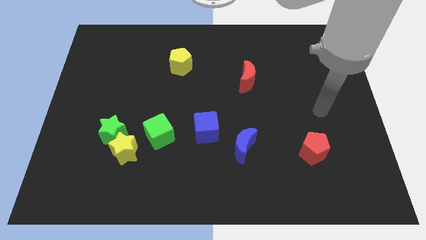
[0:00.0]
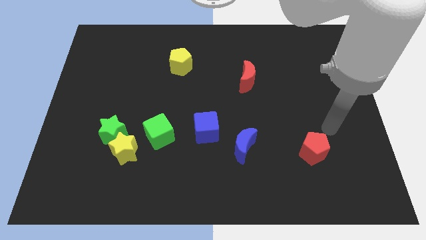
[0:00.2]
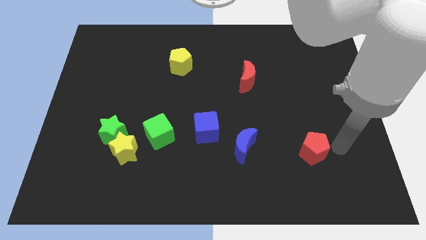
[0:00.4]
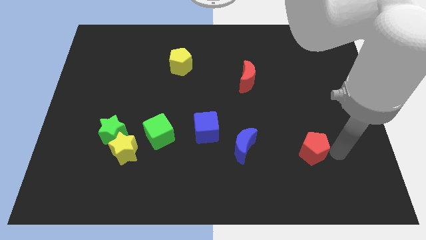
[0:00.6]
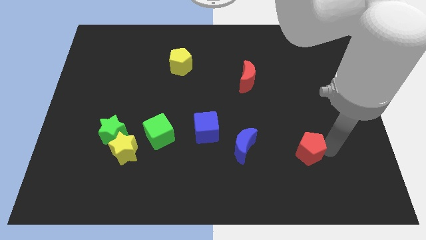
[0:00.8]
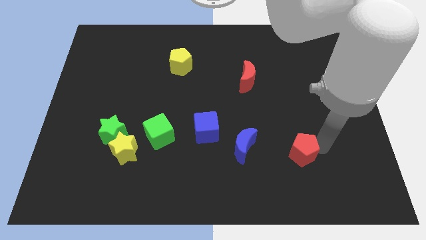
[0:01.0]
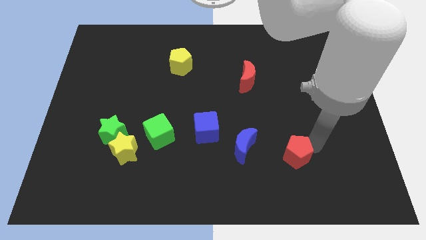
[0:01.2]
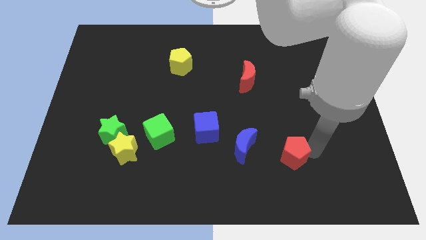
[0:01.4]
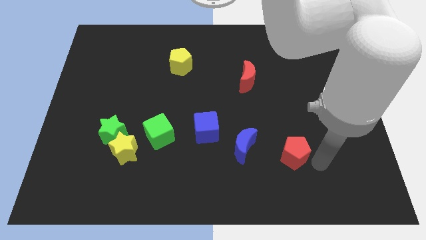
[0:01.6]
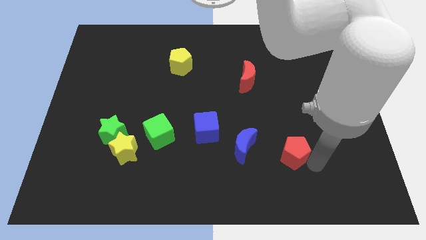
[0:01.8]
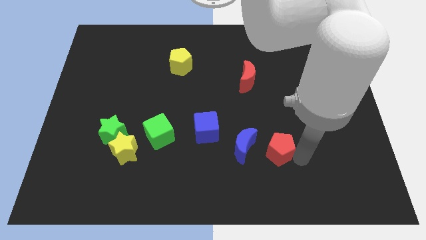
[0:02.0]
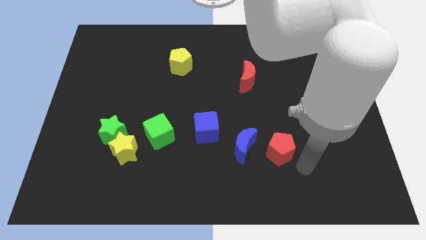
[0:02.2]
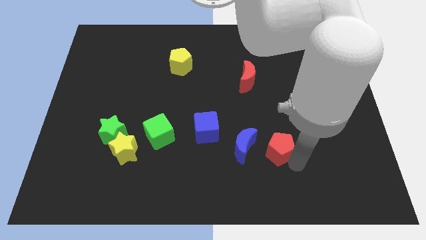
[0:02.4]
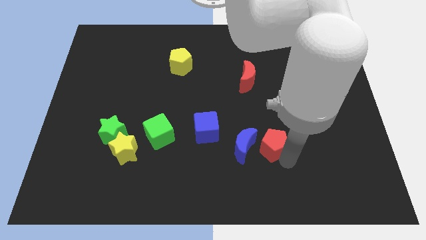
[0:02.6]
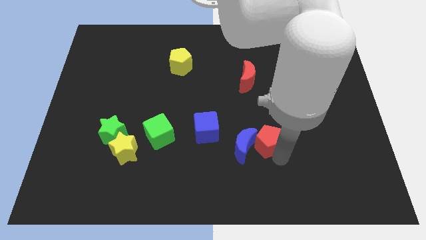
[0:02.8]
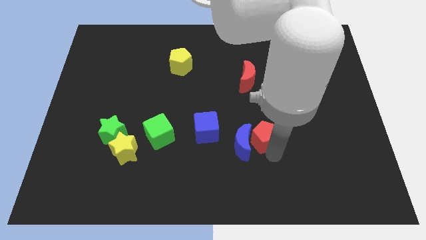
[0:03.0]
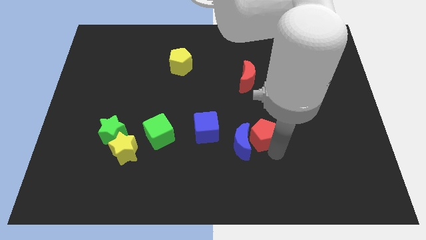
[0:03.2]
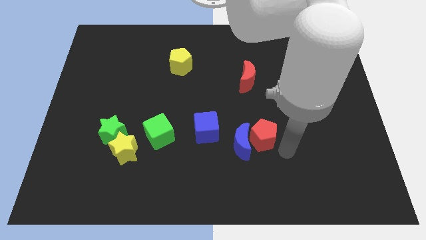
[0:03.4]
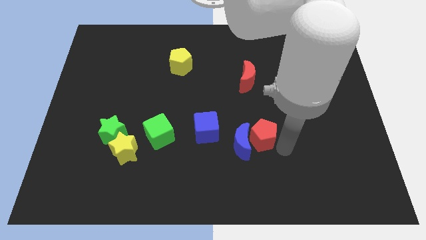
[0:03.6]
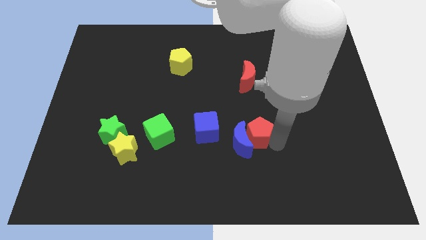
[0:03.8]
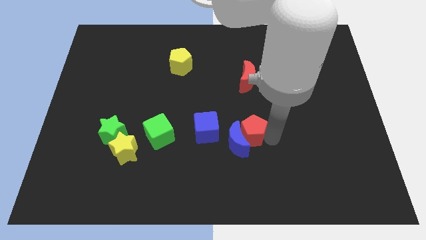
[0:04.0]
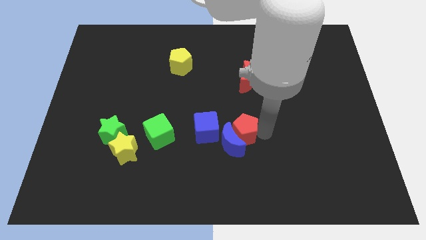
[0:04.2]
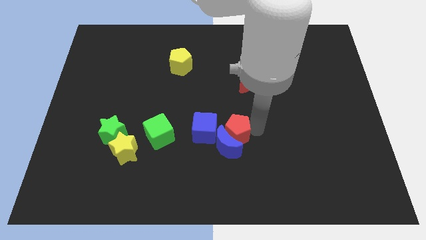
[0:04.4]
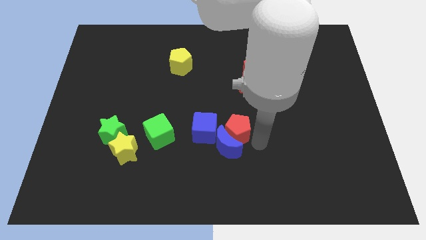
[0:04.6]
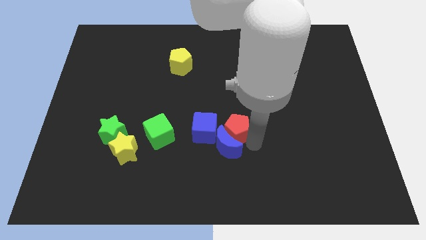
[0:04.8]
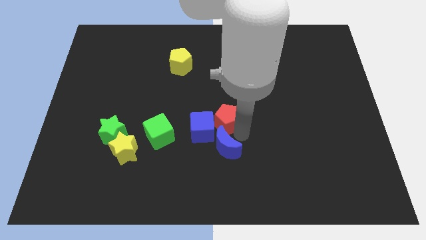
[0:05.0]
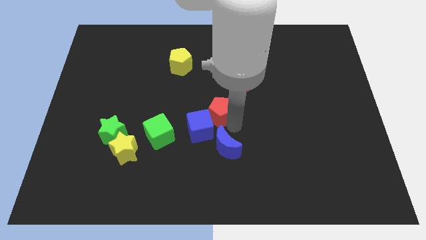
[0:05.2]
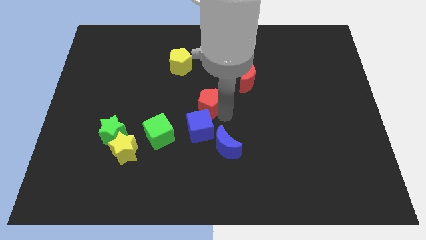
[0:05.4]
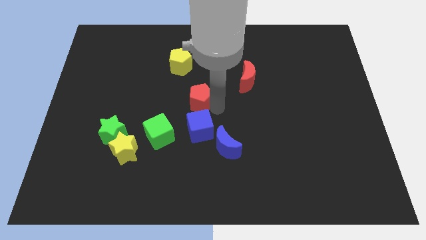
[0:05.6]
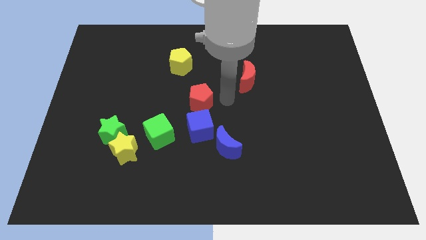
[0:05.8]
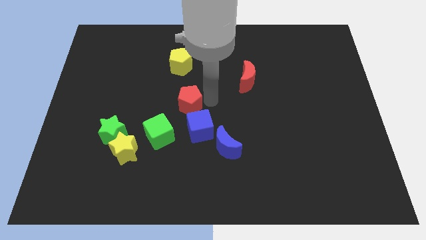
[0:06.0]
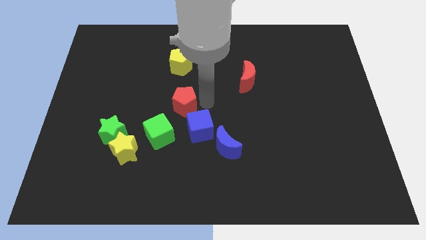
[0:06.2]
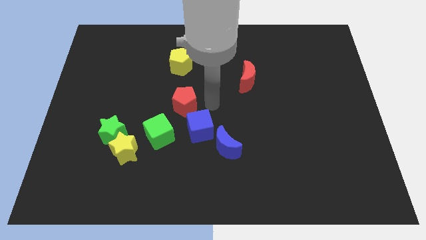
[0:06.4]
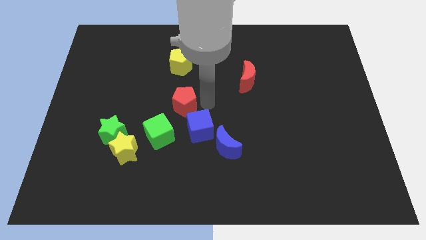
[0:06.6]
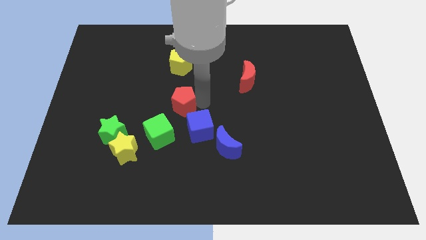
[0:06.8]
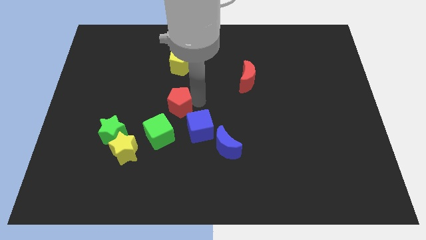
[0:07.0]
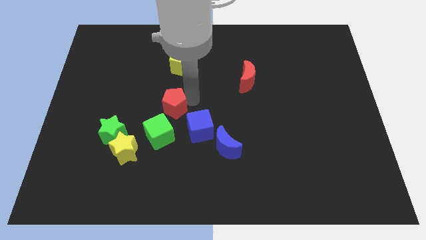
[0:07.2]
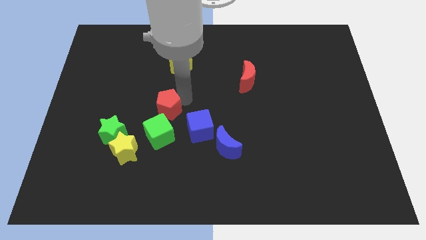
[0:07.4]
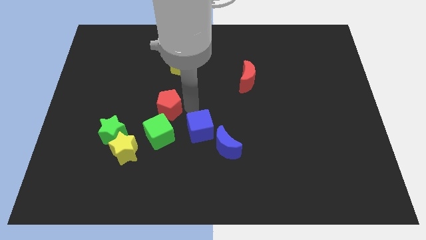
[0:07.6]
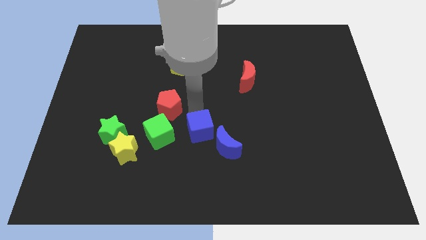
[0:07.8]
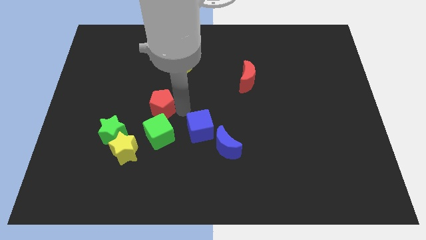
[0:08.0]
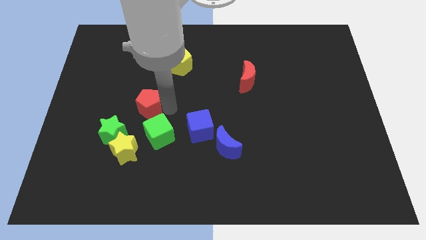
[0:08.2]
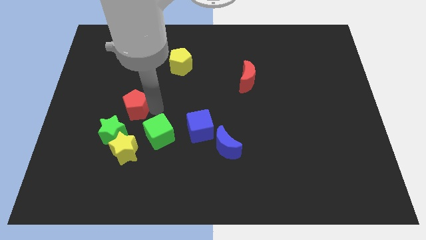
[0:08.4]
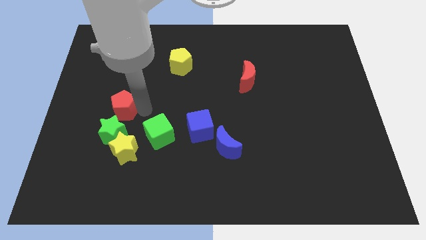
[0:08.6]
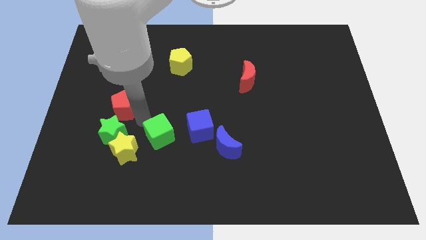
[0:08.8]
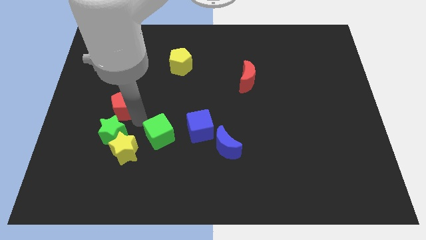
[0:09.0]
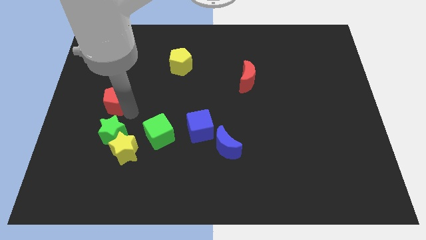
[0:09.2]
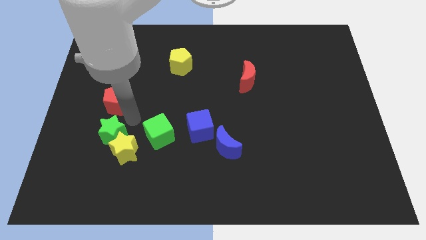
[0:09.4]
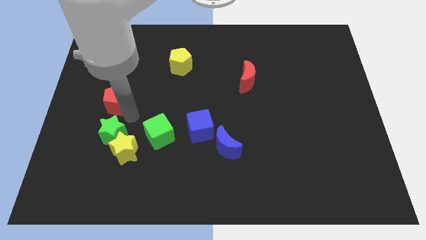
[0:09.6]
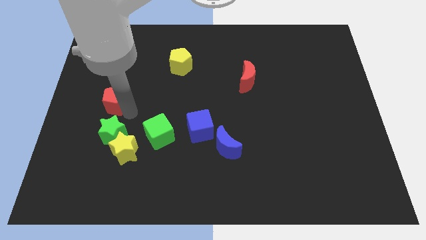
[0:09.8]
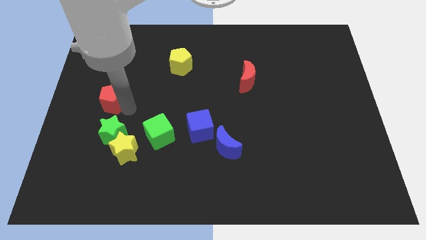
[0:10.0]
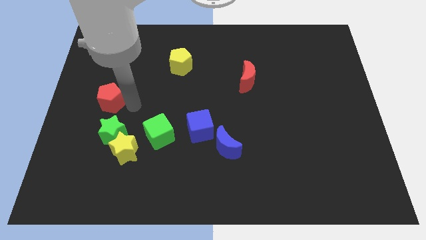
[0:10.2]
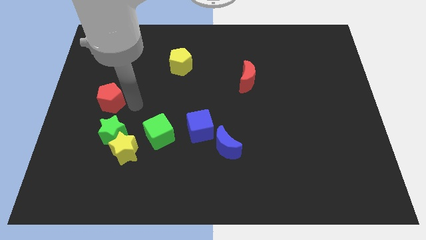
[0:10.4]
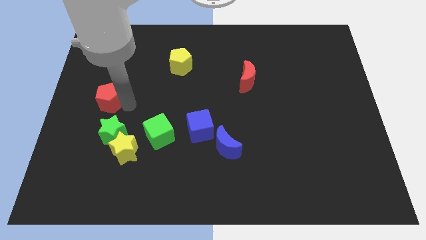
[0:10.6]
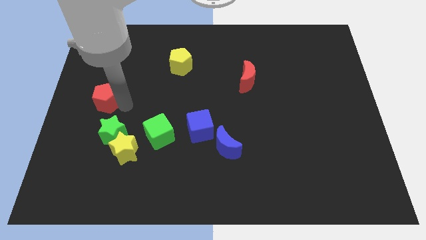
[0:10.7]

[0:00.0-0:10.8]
move the red pentagon to the left side of the board

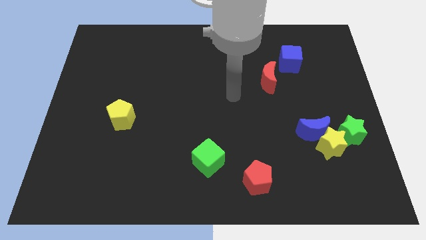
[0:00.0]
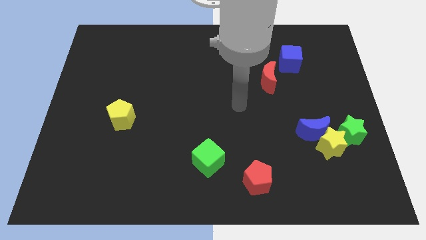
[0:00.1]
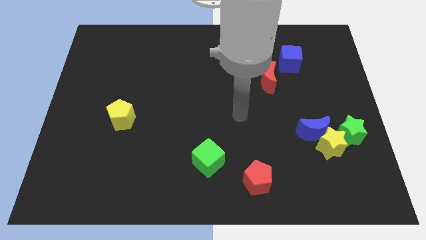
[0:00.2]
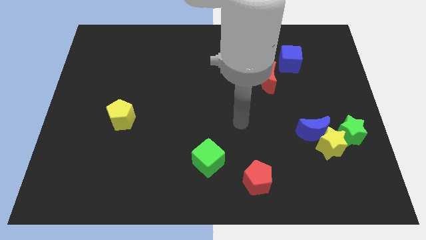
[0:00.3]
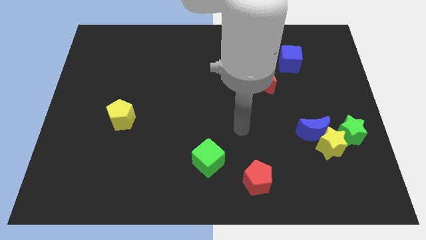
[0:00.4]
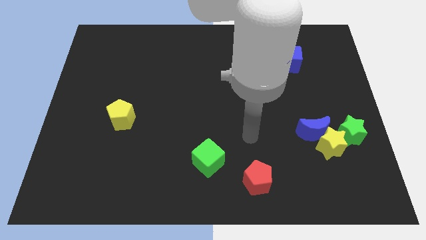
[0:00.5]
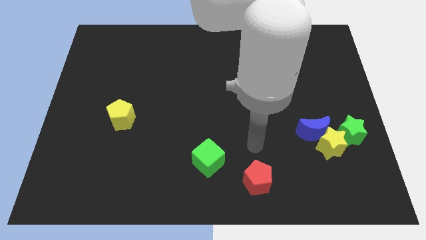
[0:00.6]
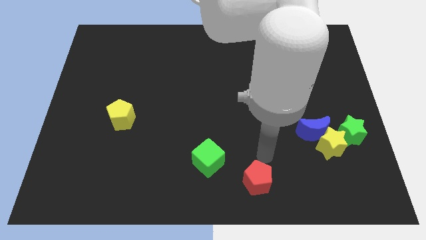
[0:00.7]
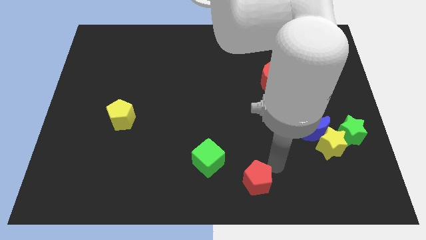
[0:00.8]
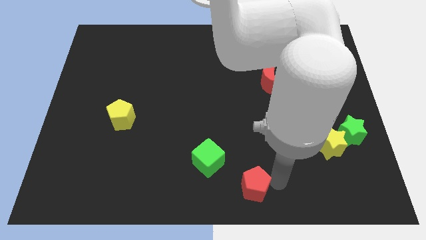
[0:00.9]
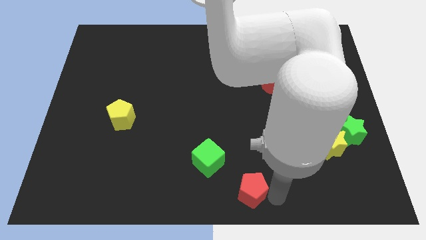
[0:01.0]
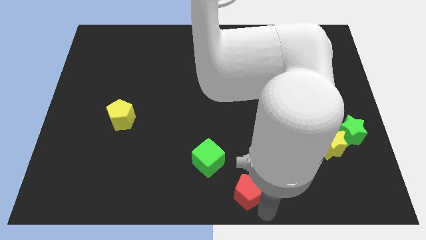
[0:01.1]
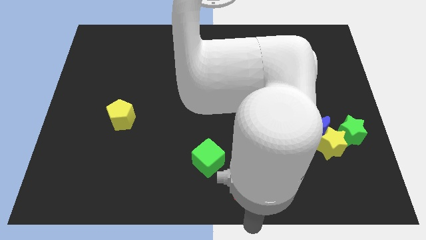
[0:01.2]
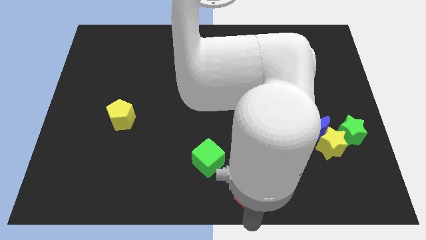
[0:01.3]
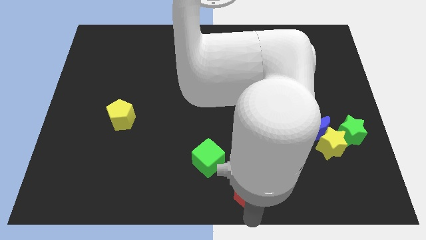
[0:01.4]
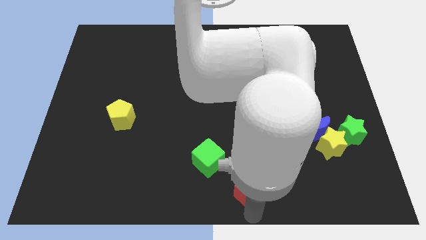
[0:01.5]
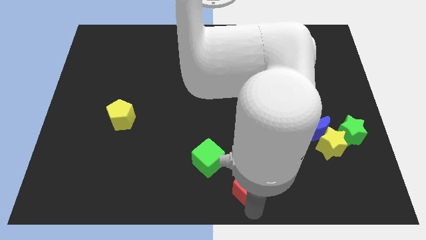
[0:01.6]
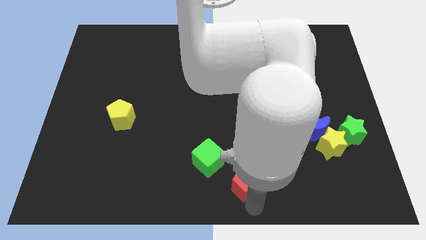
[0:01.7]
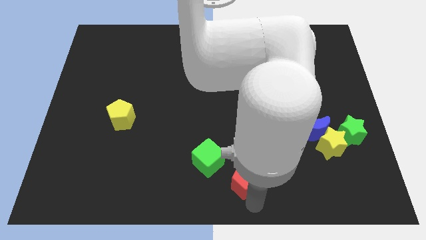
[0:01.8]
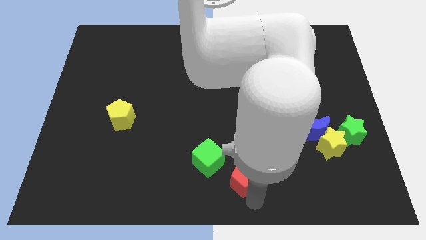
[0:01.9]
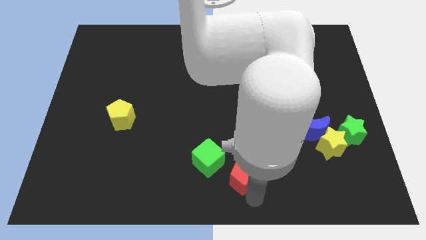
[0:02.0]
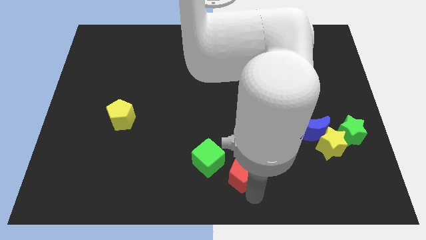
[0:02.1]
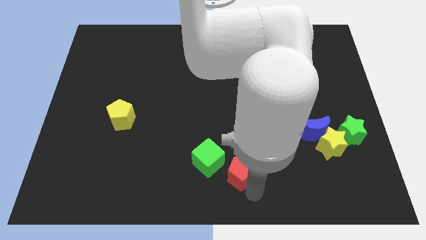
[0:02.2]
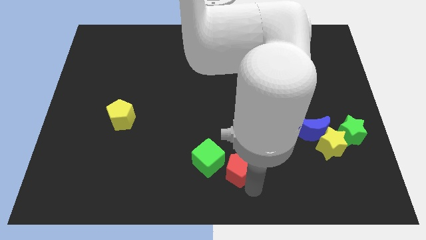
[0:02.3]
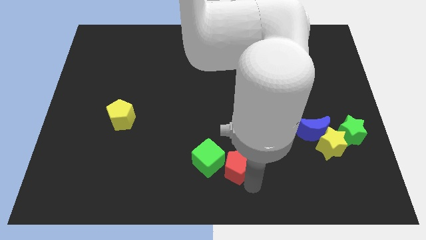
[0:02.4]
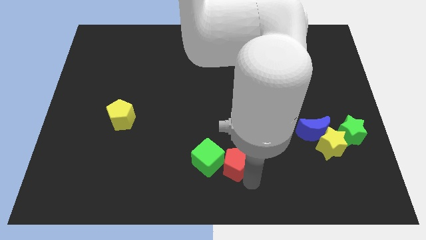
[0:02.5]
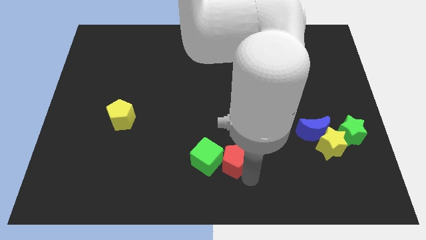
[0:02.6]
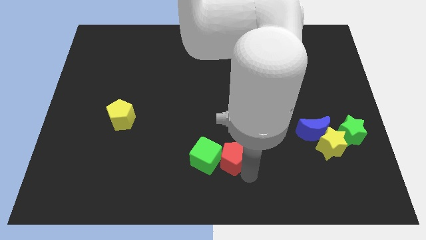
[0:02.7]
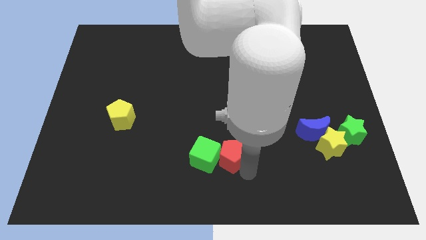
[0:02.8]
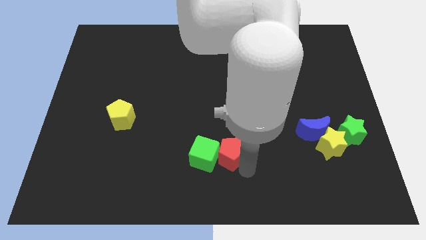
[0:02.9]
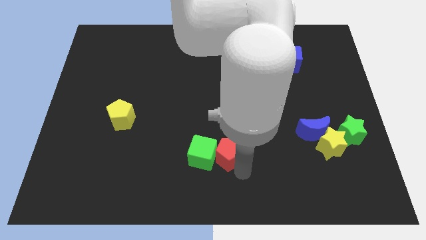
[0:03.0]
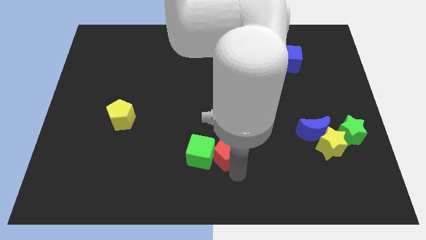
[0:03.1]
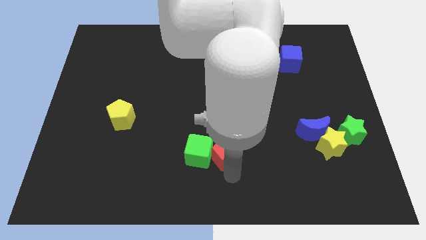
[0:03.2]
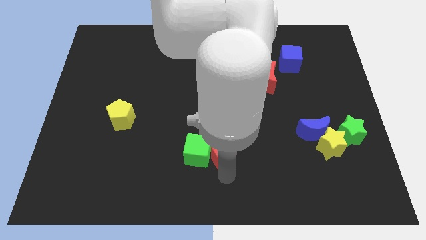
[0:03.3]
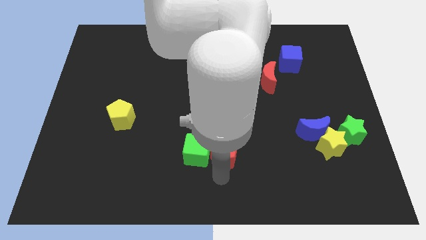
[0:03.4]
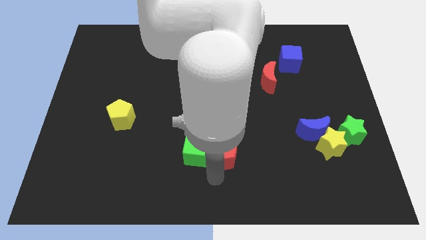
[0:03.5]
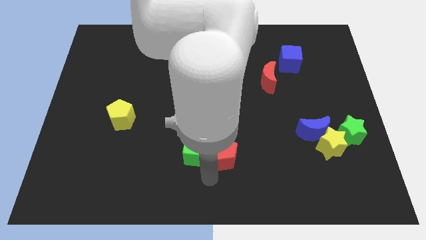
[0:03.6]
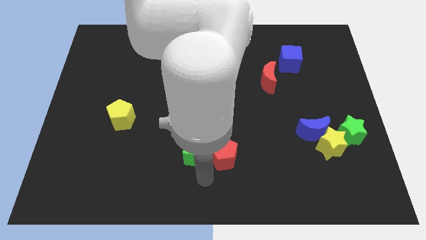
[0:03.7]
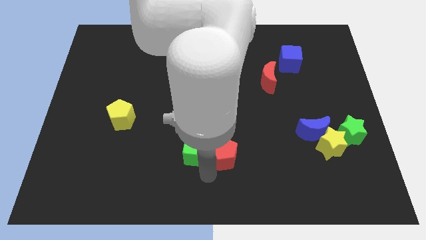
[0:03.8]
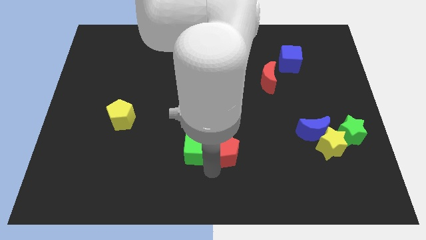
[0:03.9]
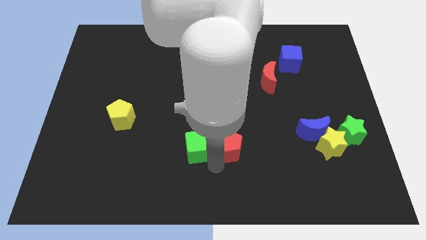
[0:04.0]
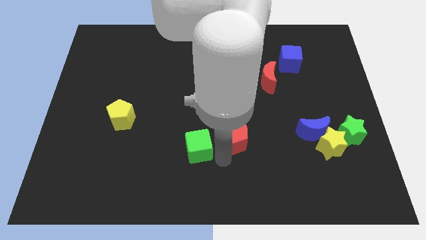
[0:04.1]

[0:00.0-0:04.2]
move the red pentagon to the middle of the board
